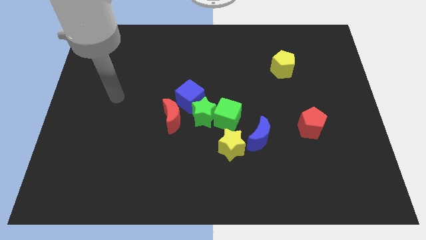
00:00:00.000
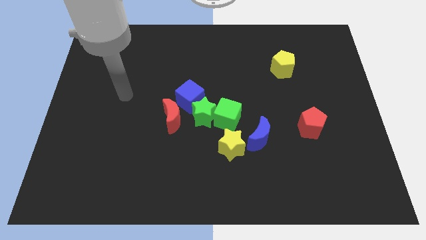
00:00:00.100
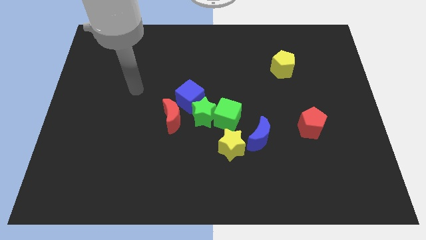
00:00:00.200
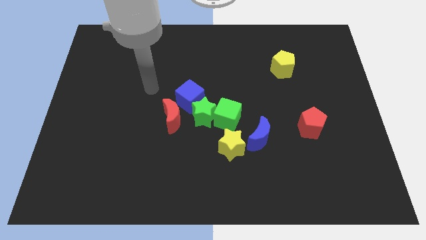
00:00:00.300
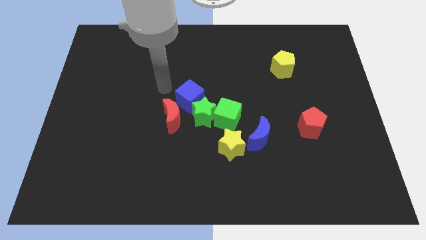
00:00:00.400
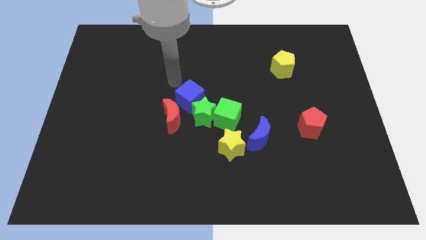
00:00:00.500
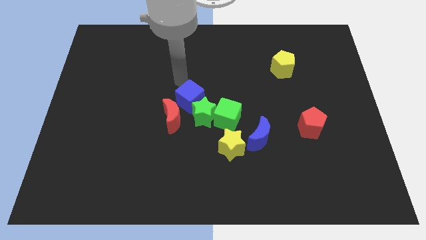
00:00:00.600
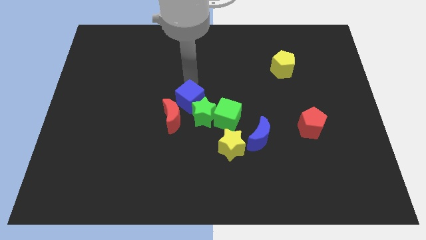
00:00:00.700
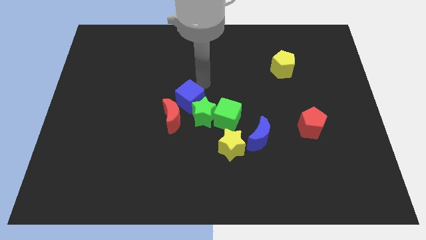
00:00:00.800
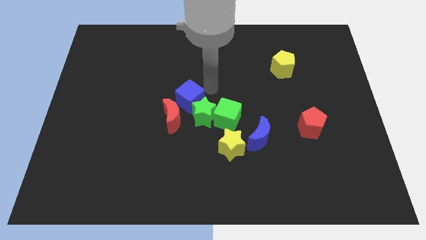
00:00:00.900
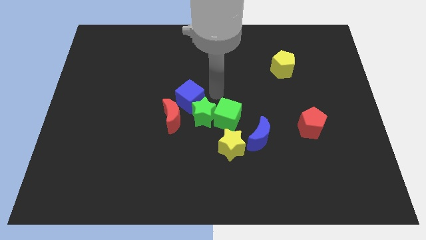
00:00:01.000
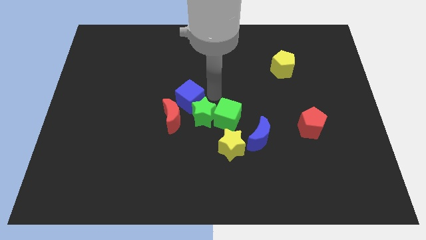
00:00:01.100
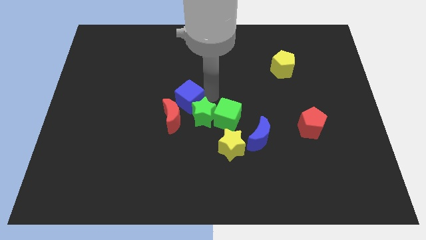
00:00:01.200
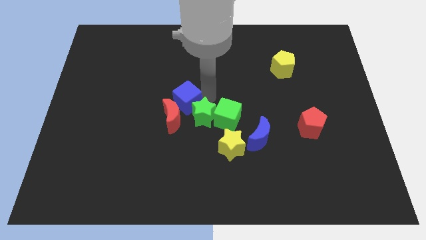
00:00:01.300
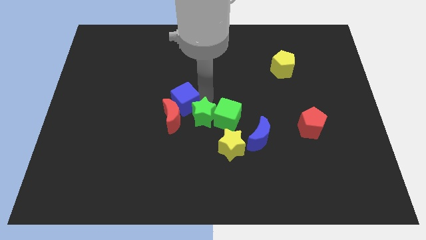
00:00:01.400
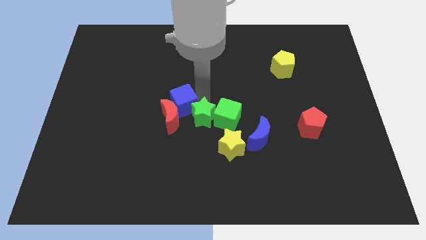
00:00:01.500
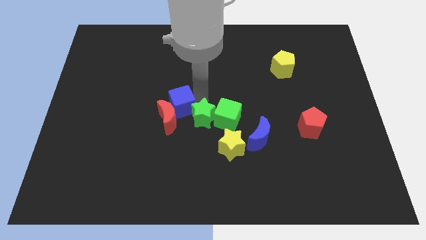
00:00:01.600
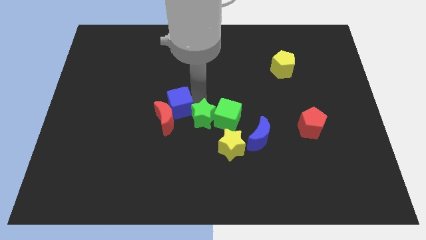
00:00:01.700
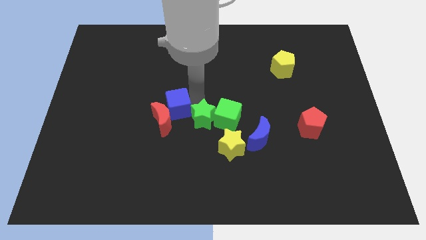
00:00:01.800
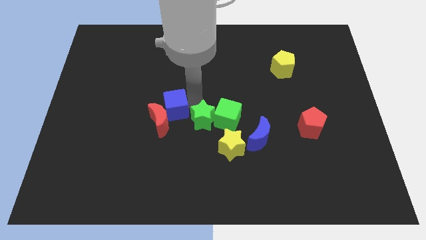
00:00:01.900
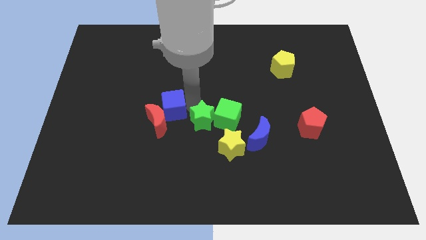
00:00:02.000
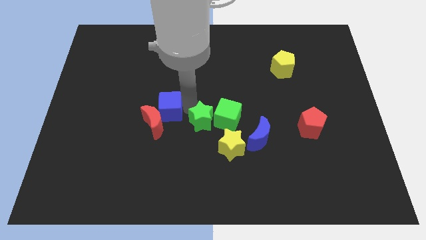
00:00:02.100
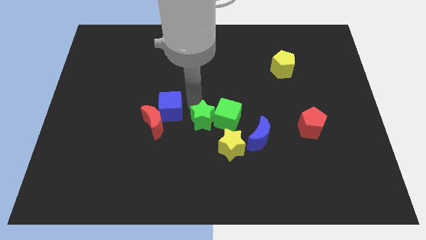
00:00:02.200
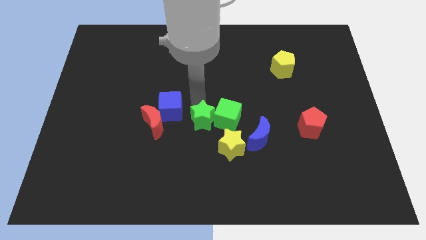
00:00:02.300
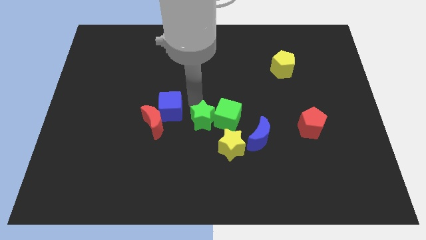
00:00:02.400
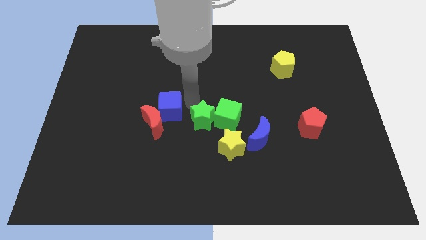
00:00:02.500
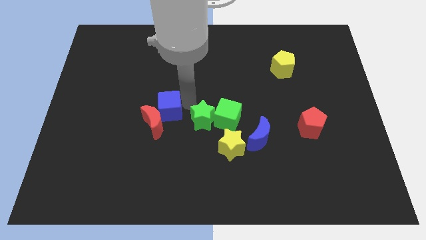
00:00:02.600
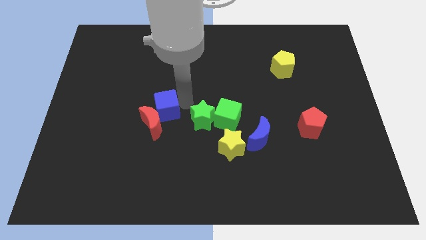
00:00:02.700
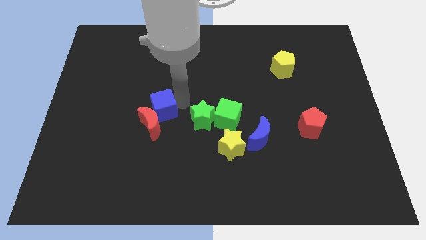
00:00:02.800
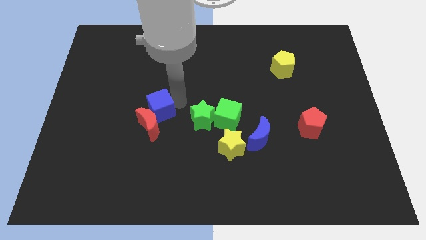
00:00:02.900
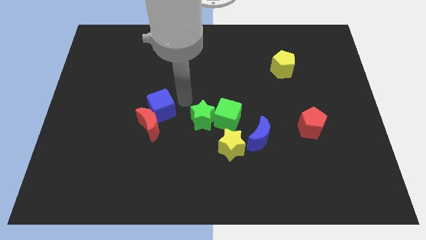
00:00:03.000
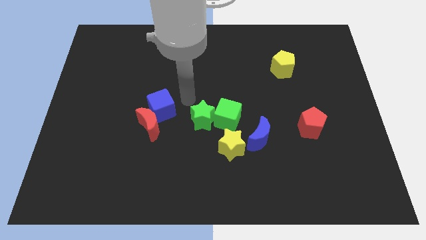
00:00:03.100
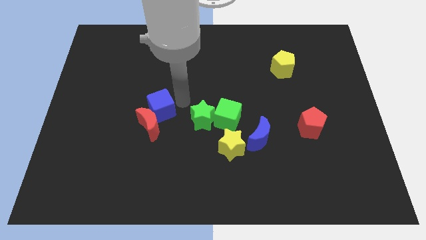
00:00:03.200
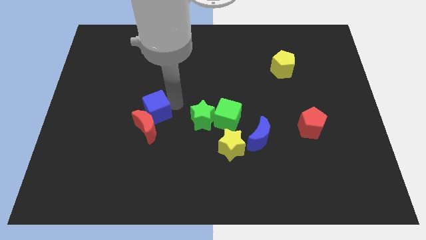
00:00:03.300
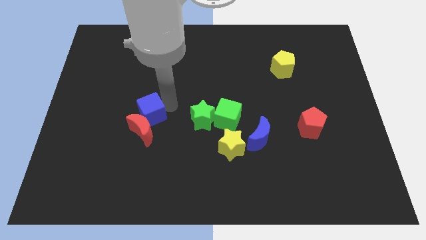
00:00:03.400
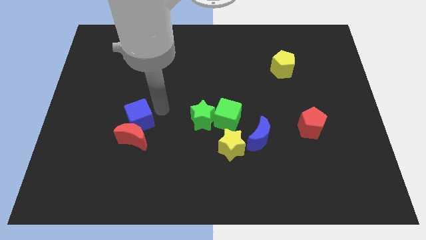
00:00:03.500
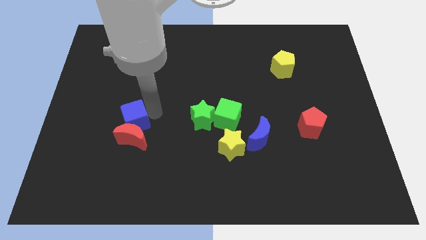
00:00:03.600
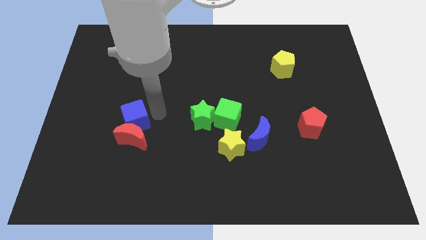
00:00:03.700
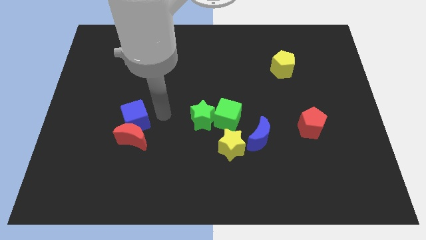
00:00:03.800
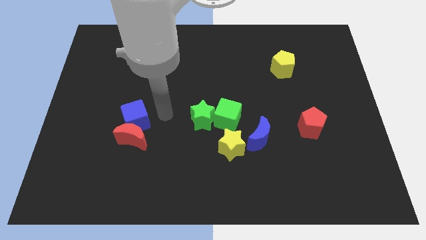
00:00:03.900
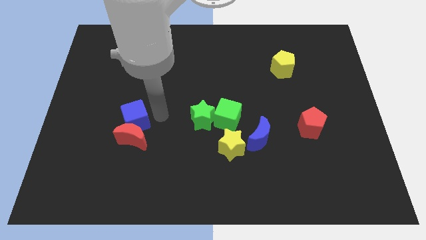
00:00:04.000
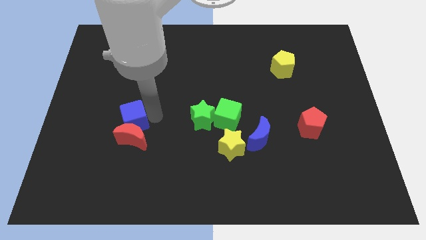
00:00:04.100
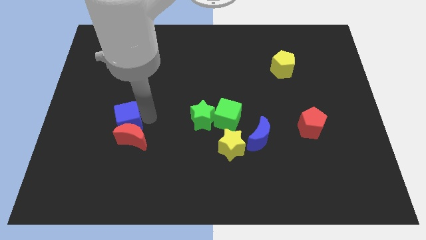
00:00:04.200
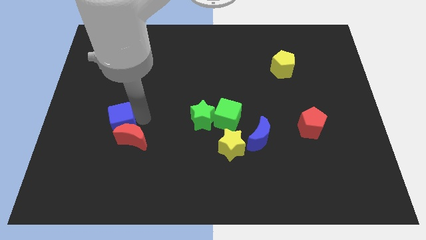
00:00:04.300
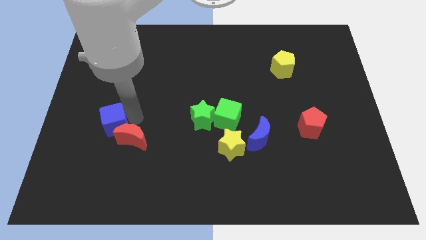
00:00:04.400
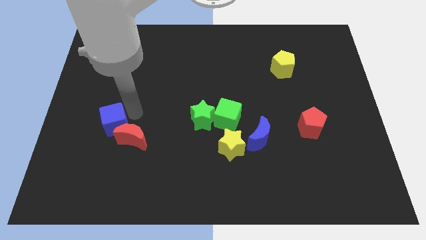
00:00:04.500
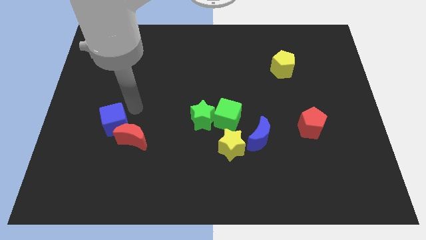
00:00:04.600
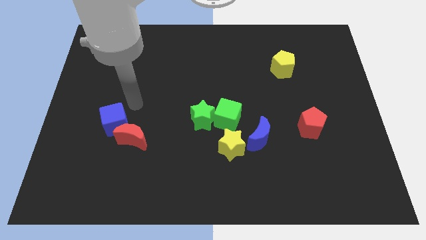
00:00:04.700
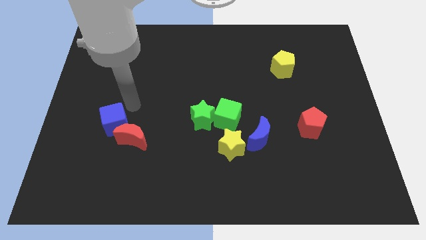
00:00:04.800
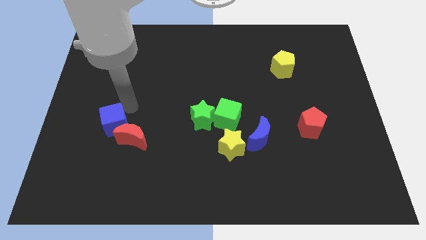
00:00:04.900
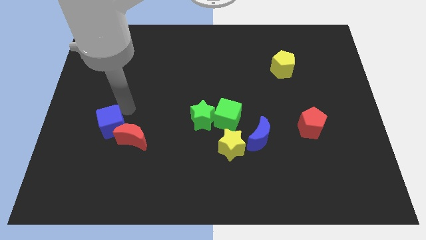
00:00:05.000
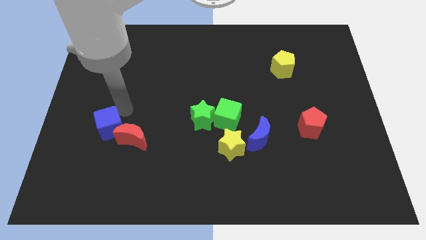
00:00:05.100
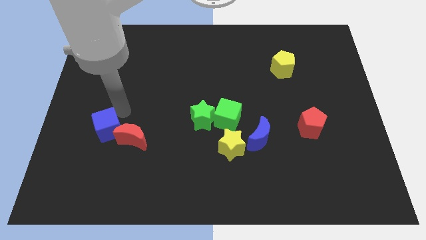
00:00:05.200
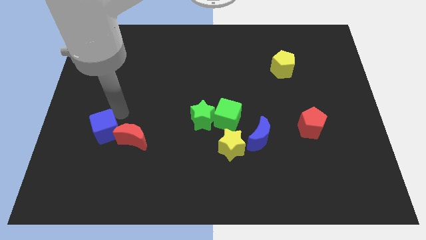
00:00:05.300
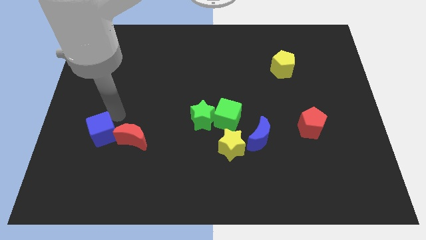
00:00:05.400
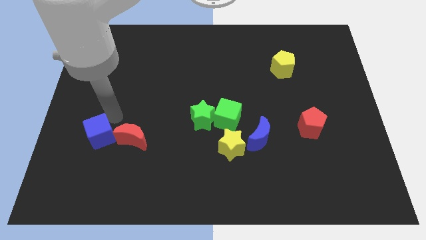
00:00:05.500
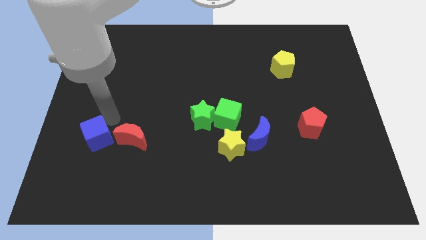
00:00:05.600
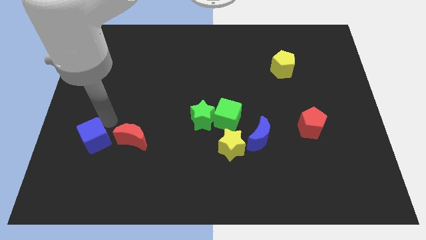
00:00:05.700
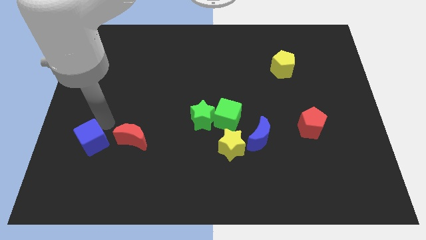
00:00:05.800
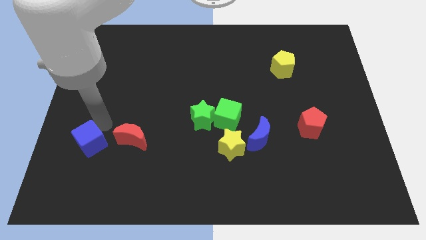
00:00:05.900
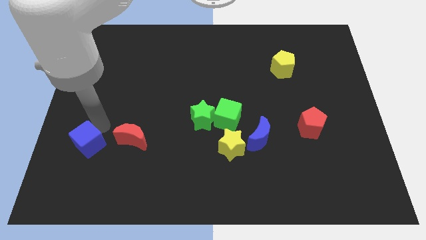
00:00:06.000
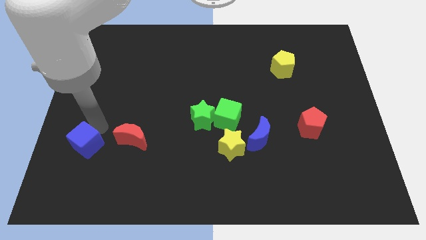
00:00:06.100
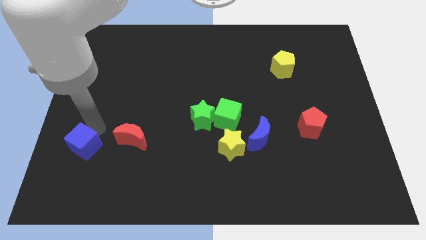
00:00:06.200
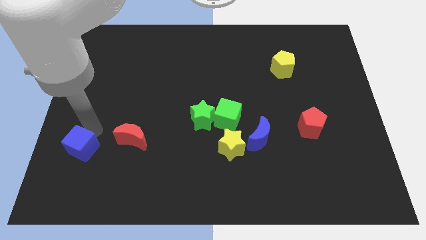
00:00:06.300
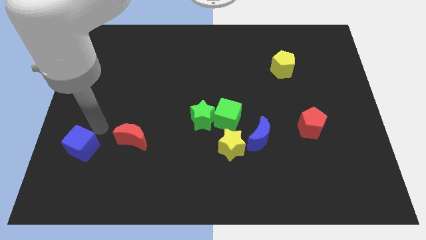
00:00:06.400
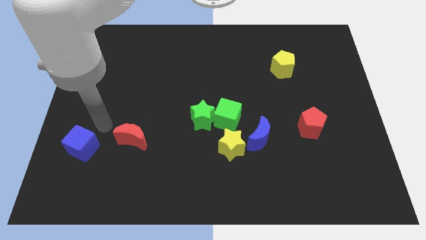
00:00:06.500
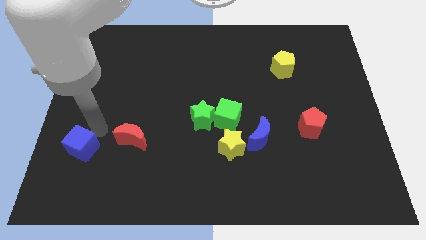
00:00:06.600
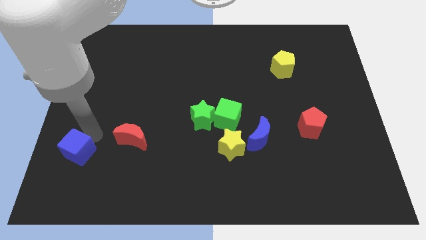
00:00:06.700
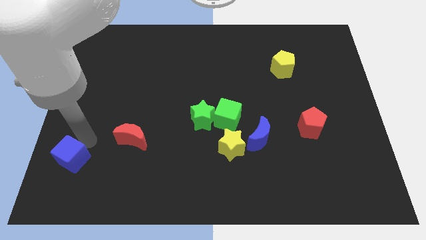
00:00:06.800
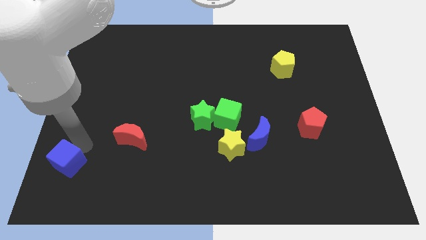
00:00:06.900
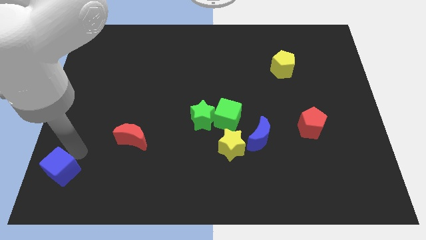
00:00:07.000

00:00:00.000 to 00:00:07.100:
move the blue cube to the bottom left of the board
